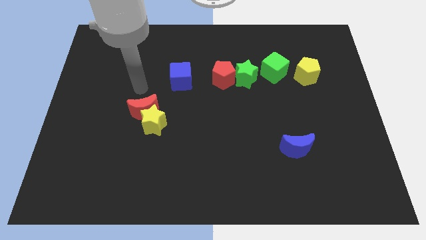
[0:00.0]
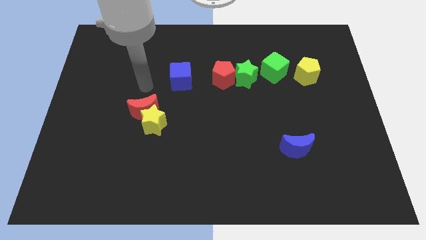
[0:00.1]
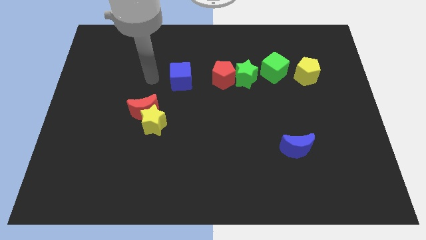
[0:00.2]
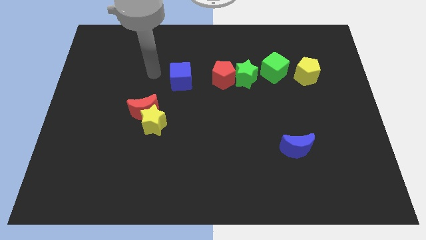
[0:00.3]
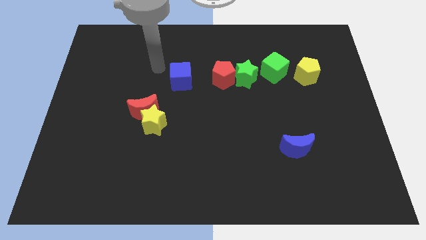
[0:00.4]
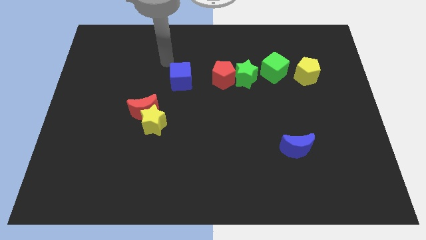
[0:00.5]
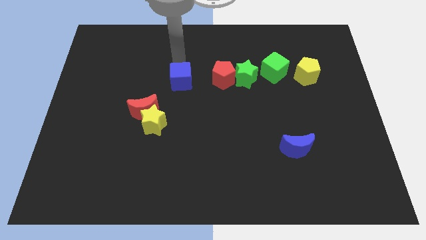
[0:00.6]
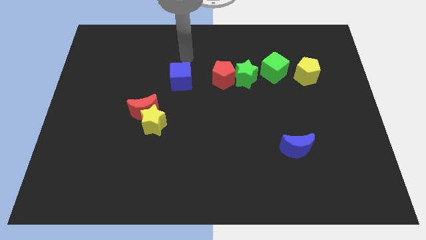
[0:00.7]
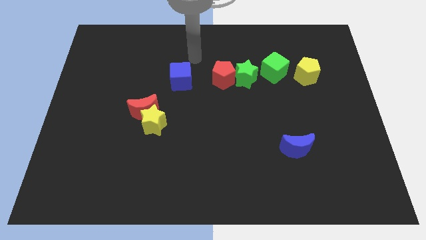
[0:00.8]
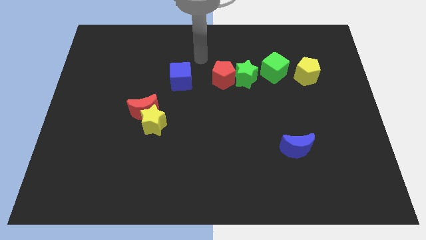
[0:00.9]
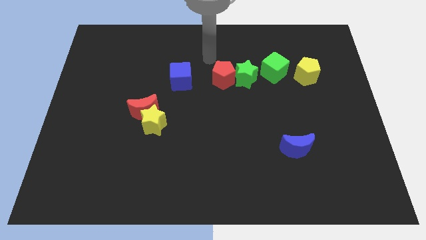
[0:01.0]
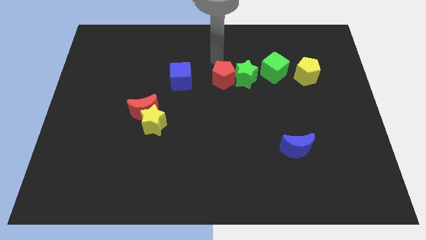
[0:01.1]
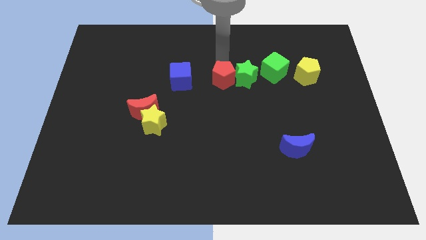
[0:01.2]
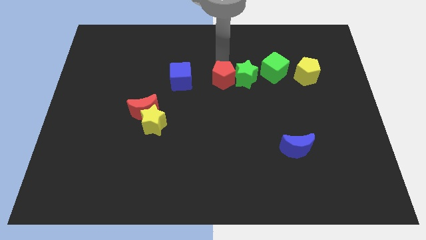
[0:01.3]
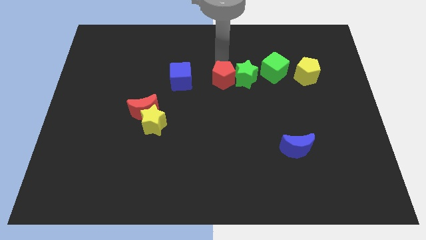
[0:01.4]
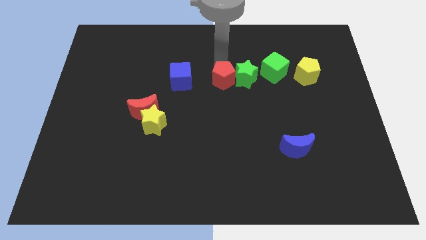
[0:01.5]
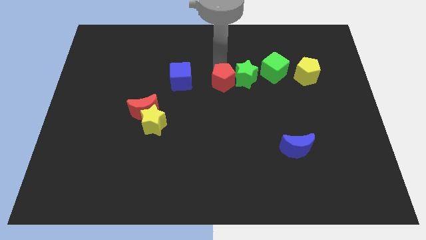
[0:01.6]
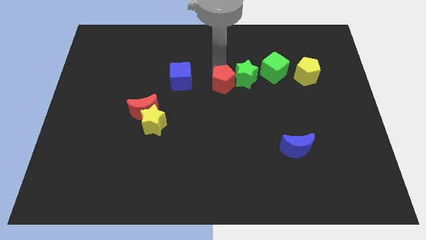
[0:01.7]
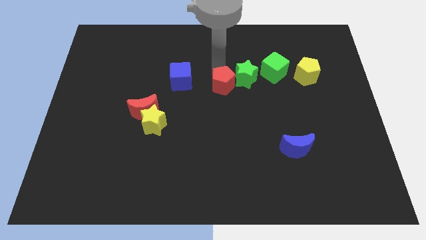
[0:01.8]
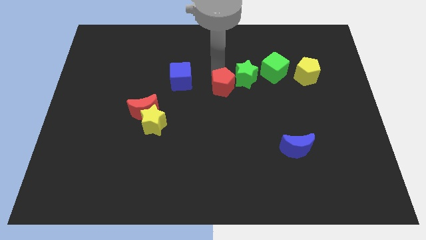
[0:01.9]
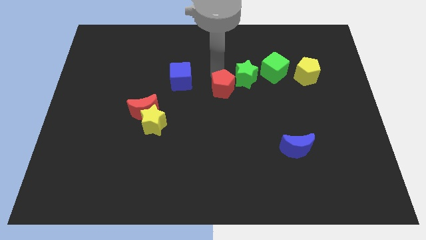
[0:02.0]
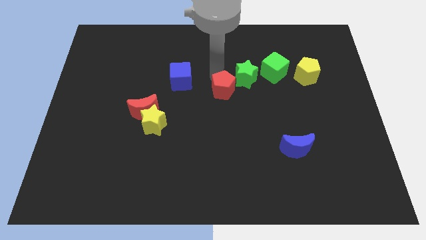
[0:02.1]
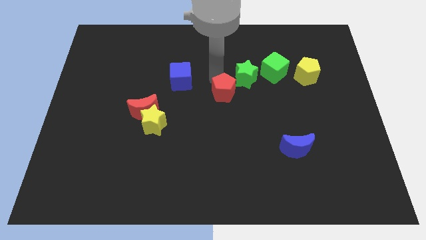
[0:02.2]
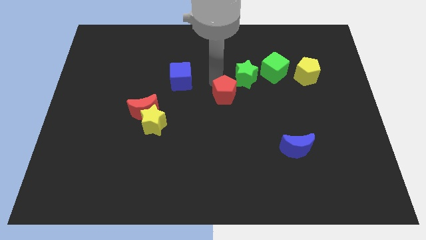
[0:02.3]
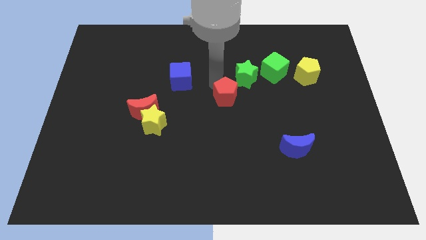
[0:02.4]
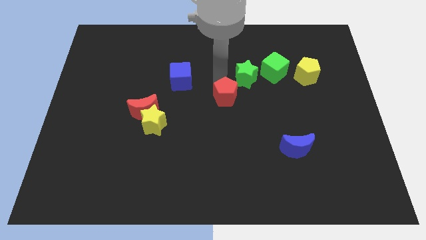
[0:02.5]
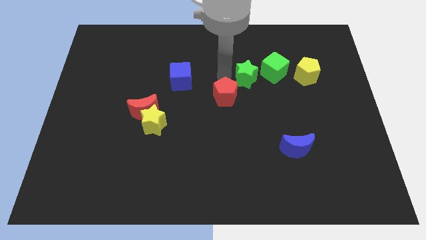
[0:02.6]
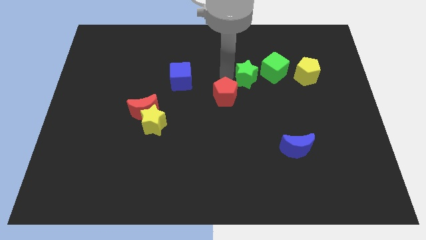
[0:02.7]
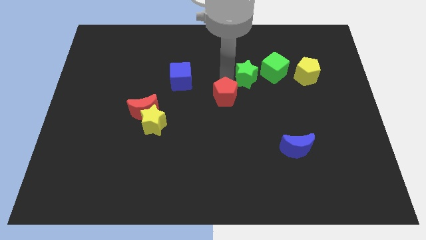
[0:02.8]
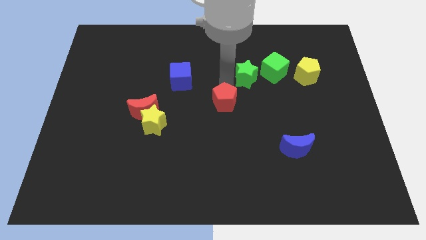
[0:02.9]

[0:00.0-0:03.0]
slightly push the red pentagon downwards

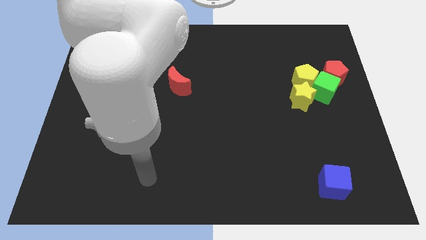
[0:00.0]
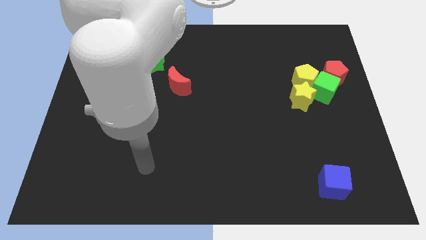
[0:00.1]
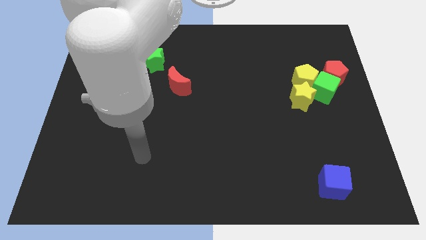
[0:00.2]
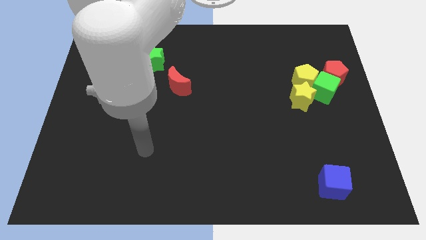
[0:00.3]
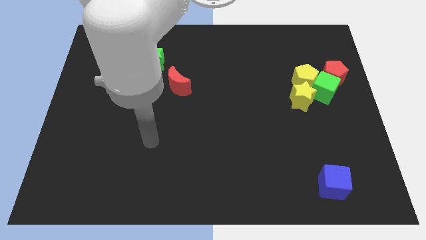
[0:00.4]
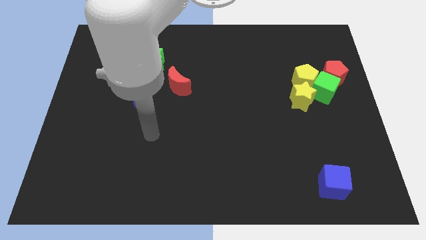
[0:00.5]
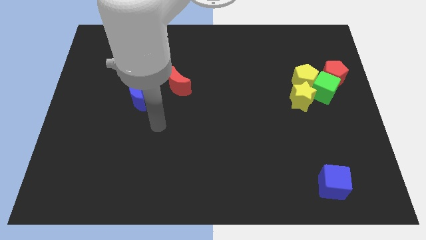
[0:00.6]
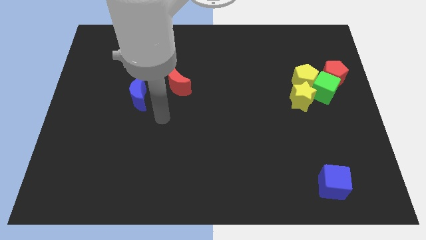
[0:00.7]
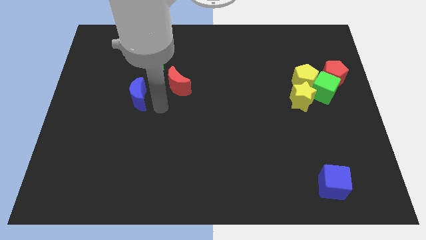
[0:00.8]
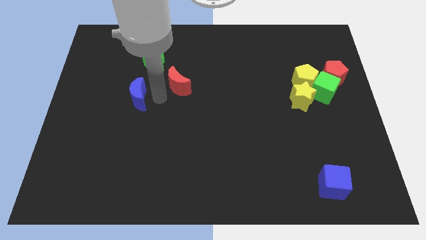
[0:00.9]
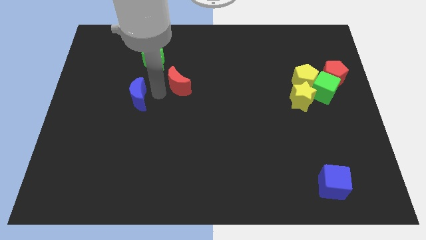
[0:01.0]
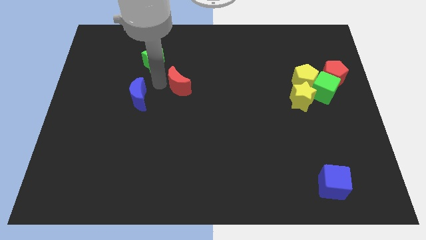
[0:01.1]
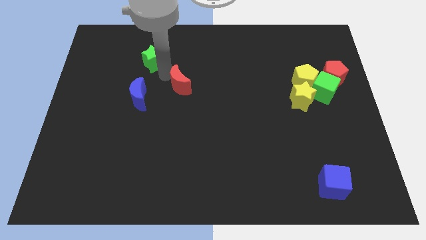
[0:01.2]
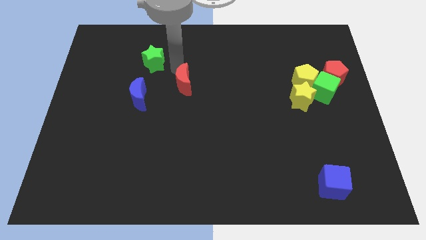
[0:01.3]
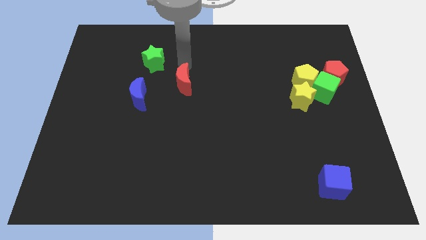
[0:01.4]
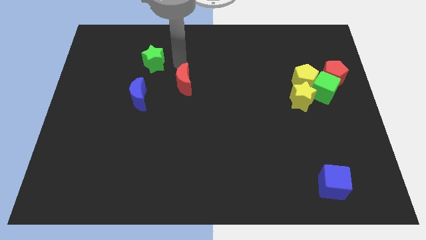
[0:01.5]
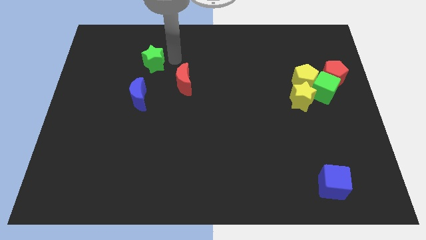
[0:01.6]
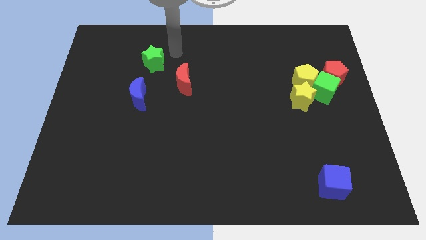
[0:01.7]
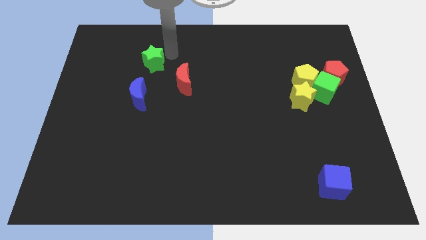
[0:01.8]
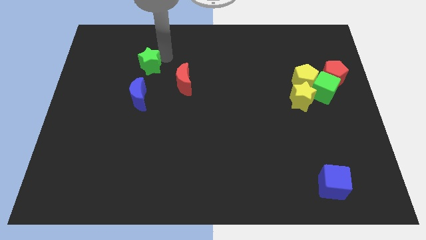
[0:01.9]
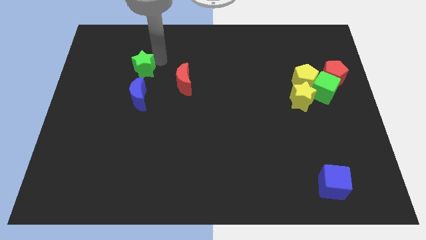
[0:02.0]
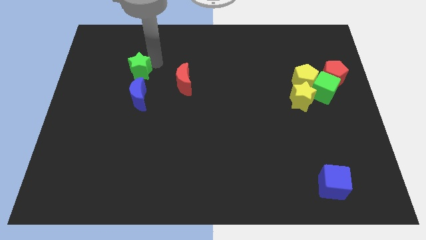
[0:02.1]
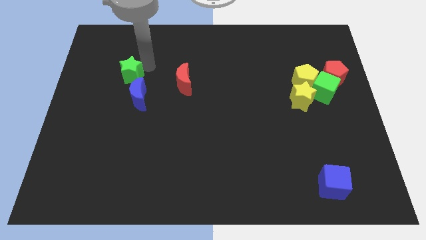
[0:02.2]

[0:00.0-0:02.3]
slightly push the green star diagonally down and to the left

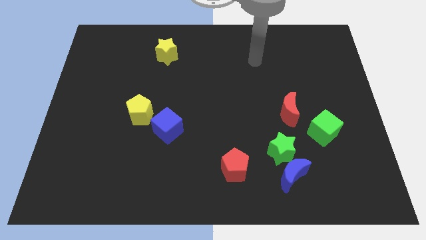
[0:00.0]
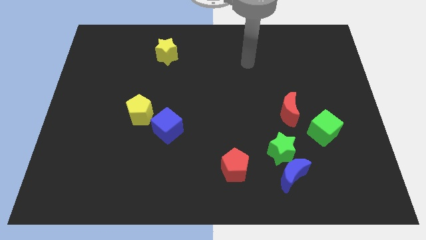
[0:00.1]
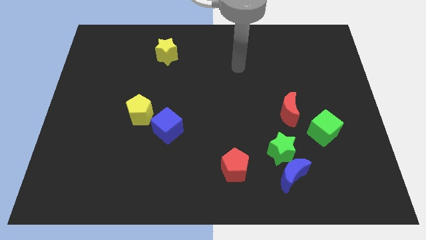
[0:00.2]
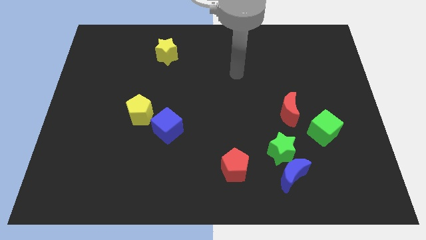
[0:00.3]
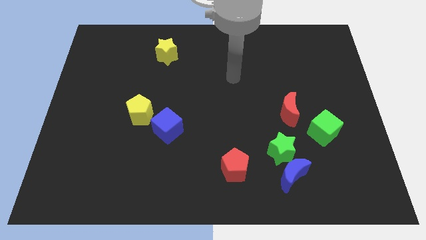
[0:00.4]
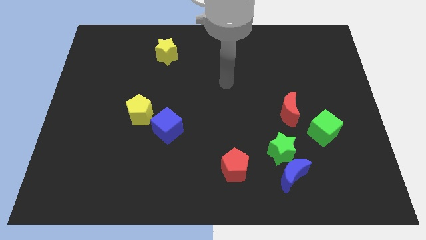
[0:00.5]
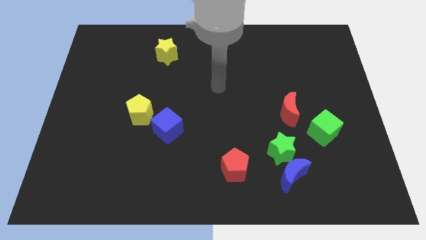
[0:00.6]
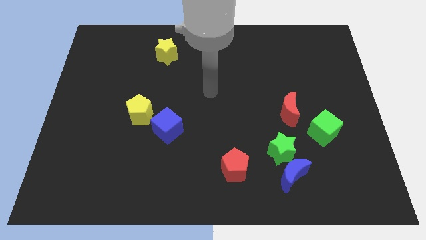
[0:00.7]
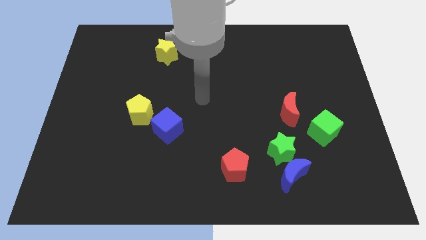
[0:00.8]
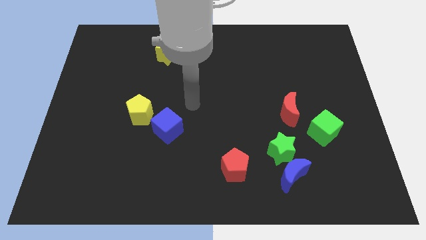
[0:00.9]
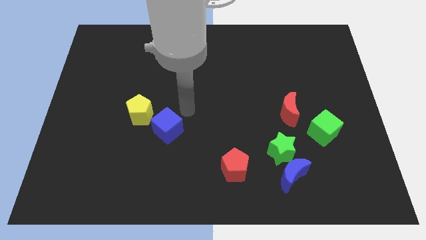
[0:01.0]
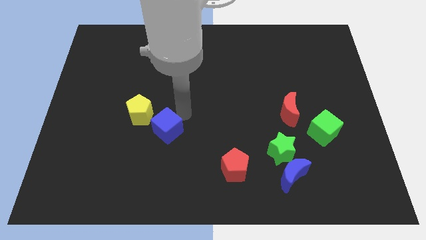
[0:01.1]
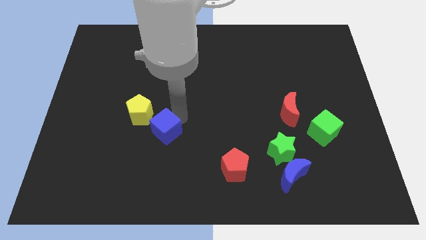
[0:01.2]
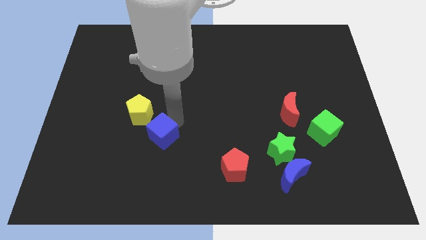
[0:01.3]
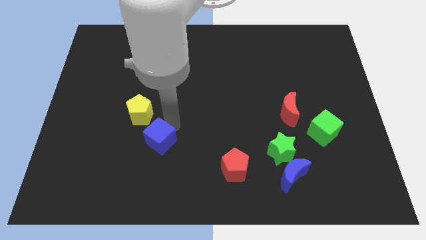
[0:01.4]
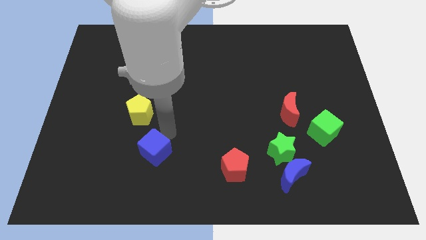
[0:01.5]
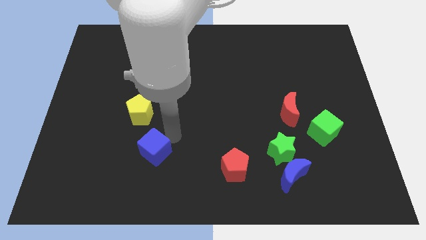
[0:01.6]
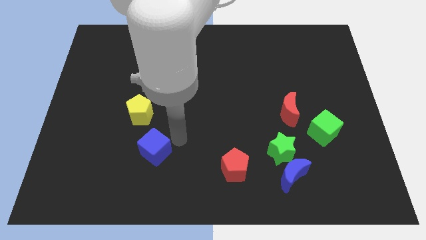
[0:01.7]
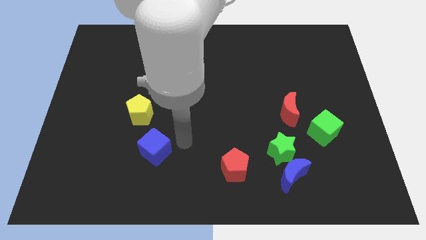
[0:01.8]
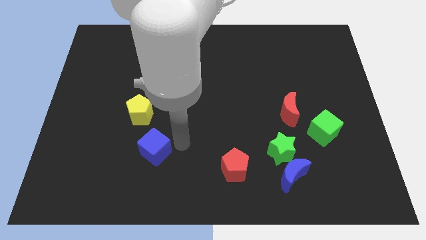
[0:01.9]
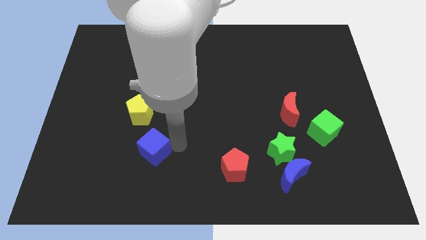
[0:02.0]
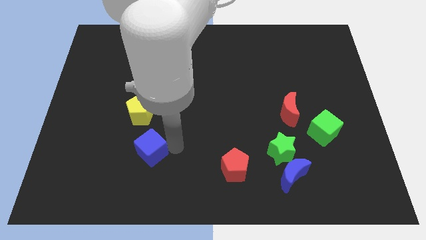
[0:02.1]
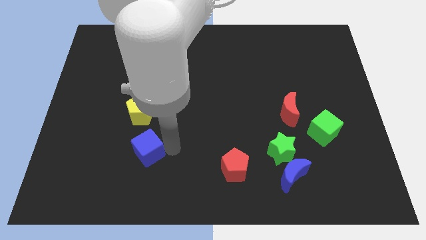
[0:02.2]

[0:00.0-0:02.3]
push the blue cube slightly down and left diagonally

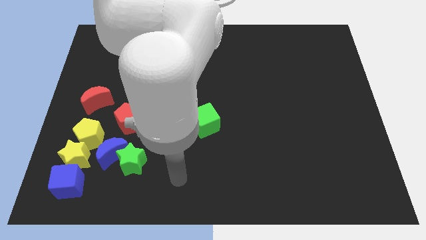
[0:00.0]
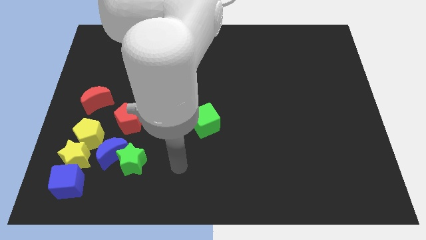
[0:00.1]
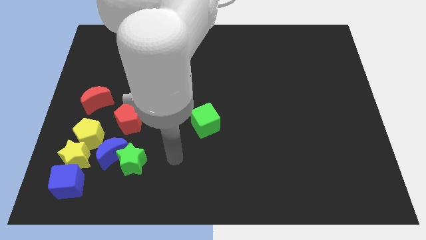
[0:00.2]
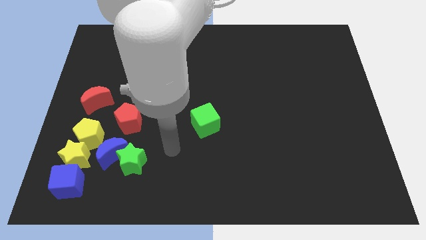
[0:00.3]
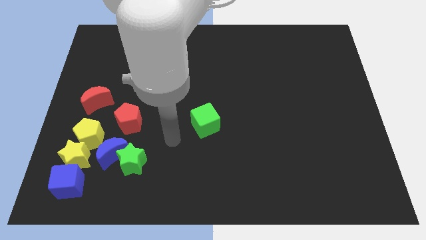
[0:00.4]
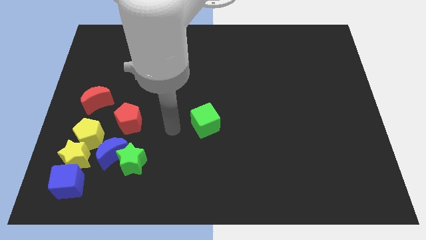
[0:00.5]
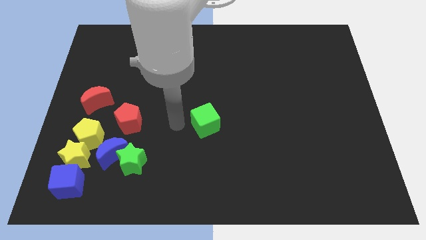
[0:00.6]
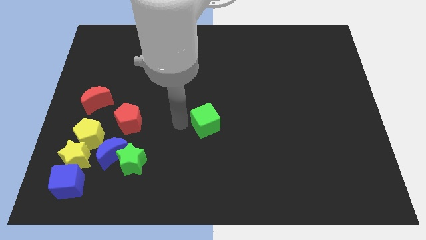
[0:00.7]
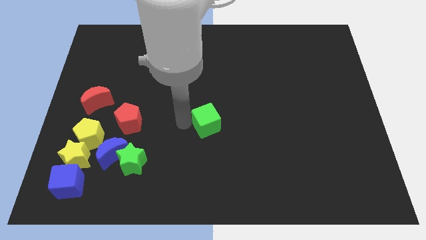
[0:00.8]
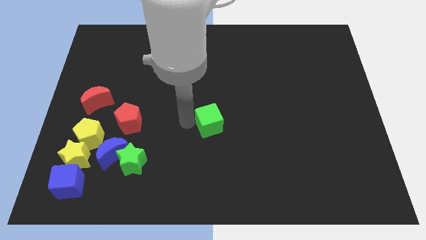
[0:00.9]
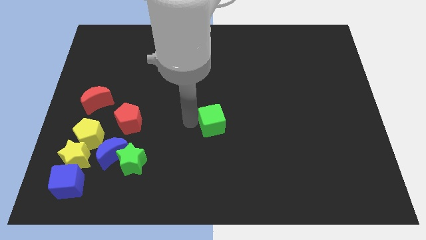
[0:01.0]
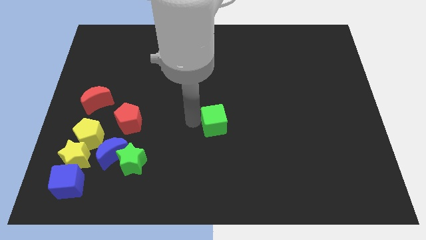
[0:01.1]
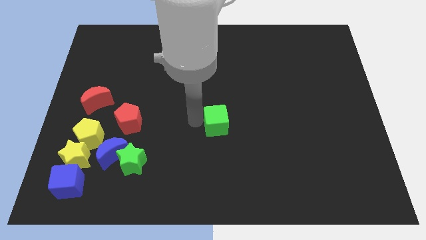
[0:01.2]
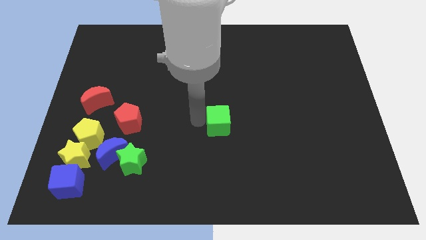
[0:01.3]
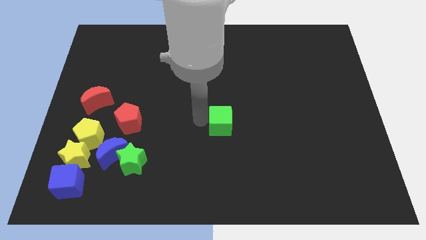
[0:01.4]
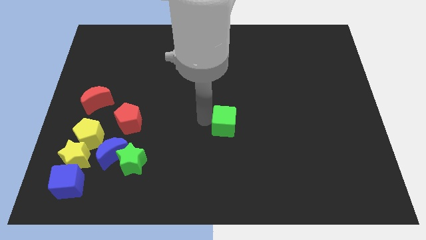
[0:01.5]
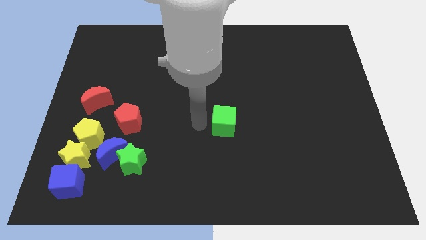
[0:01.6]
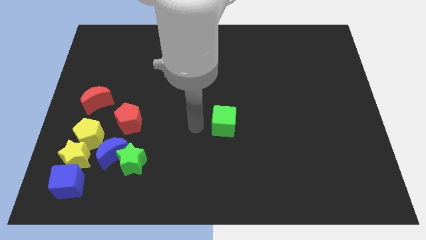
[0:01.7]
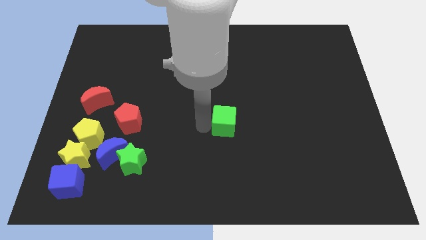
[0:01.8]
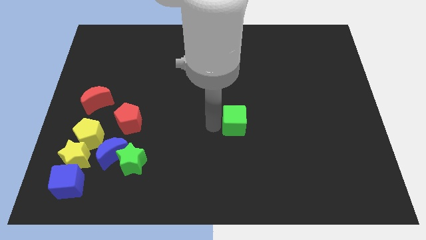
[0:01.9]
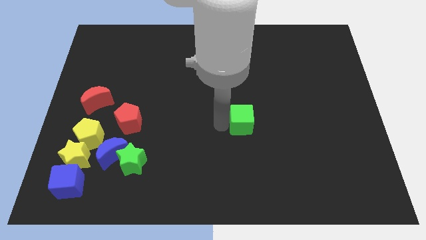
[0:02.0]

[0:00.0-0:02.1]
move the green cube a little right
